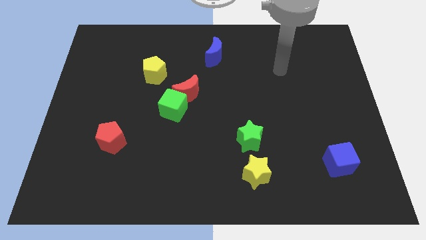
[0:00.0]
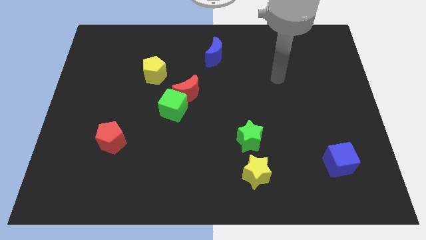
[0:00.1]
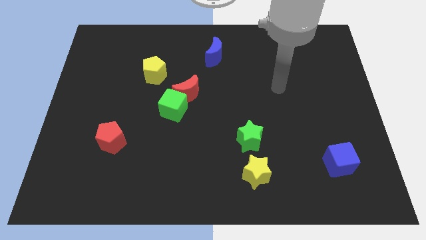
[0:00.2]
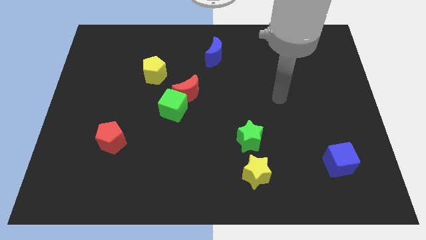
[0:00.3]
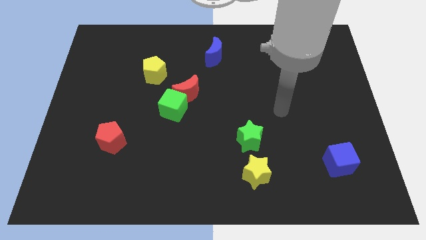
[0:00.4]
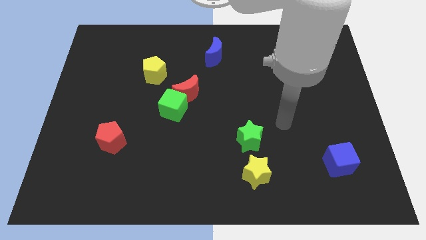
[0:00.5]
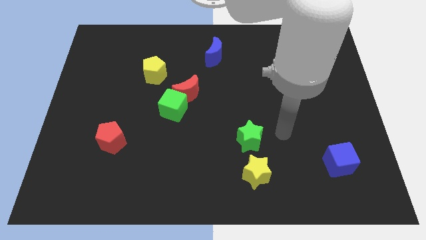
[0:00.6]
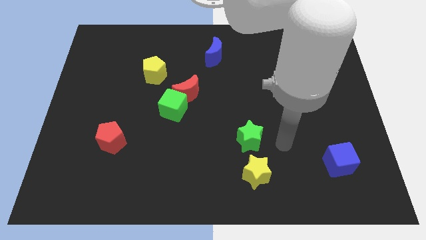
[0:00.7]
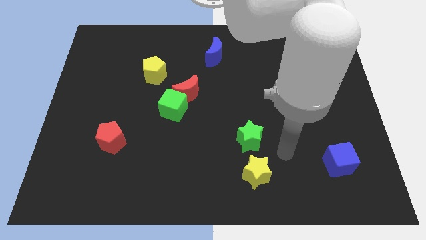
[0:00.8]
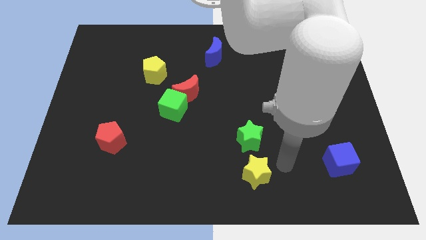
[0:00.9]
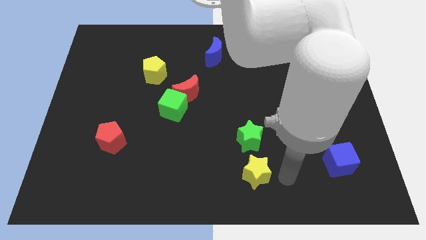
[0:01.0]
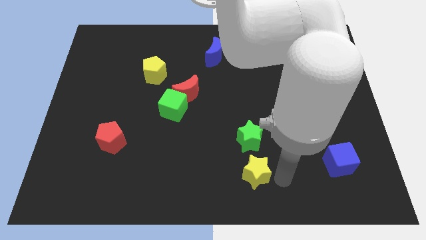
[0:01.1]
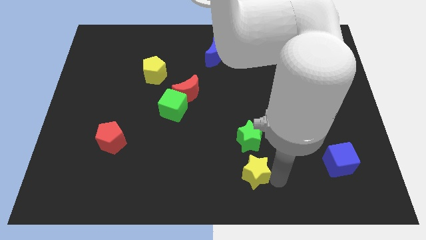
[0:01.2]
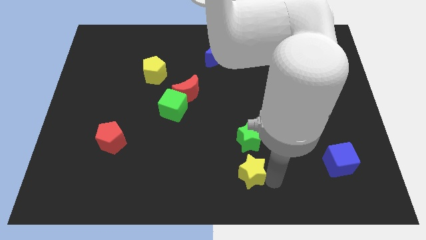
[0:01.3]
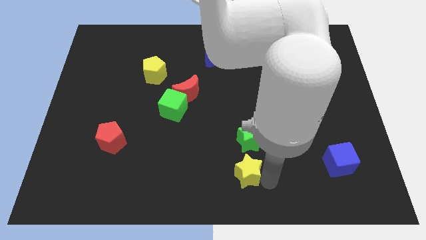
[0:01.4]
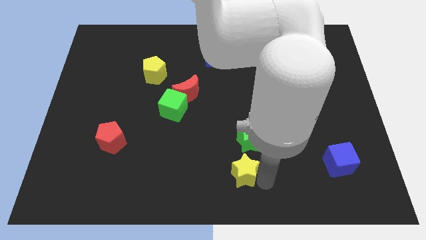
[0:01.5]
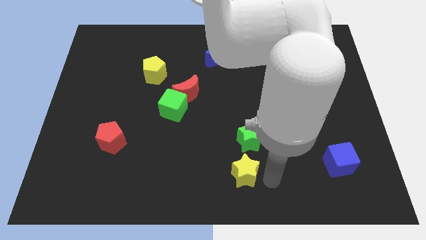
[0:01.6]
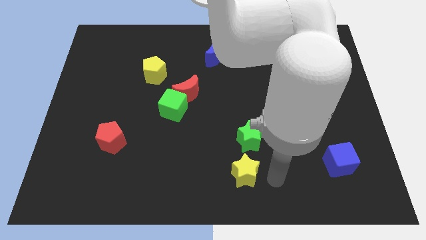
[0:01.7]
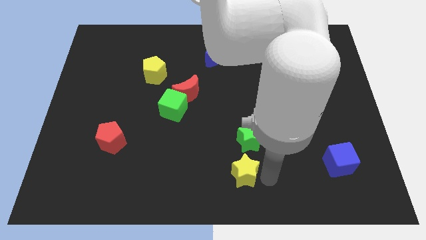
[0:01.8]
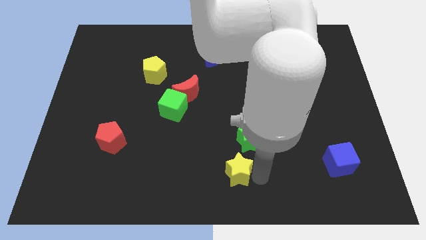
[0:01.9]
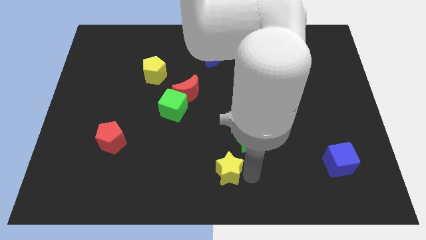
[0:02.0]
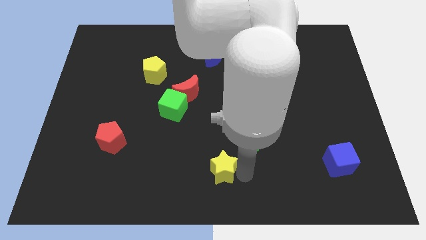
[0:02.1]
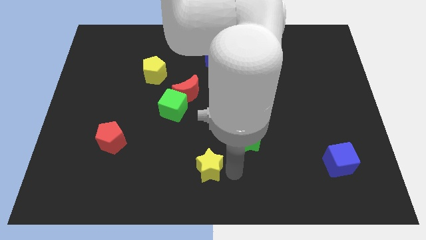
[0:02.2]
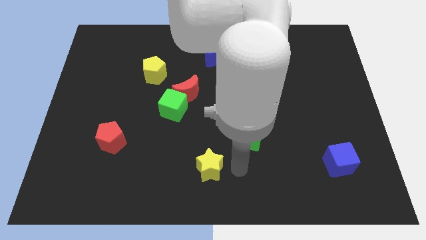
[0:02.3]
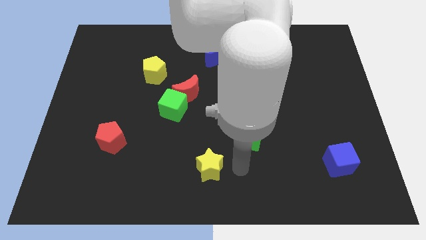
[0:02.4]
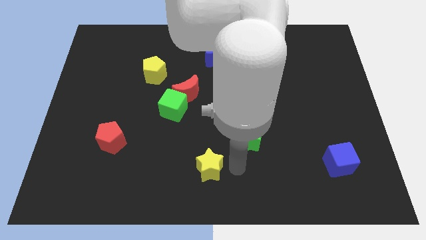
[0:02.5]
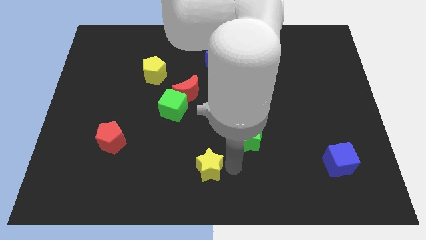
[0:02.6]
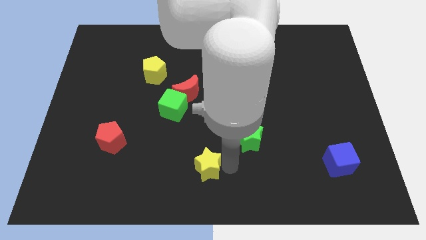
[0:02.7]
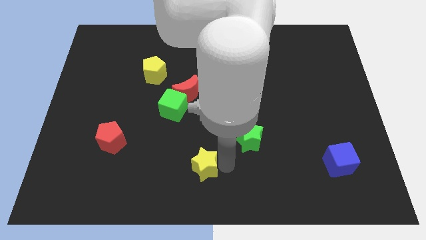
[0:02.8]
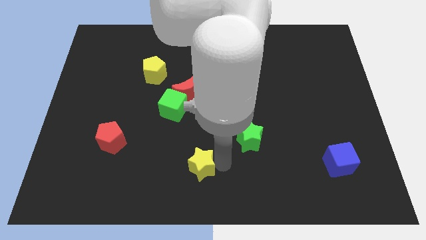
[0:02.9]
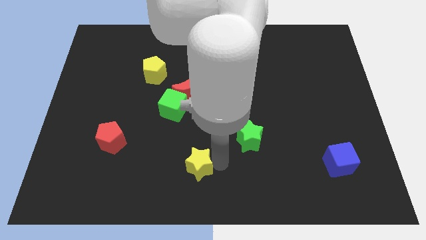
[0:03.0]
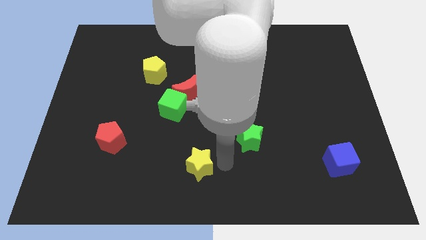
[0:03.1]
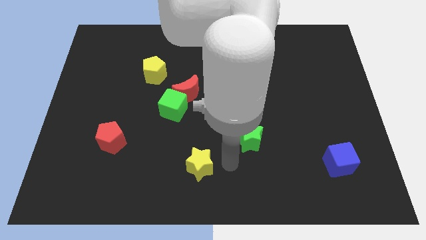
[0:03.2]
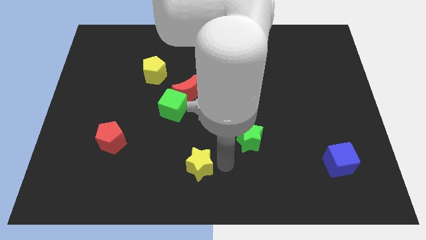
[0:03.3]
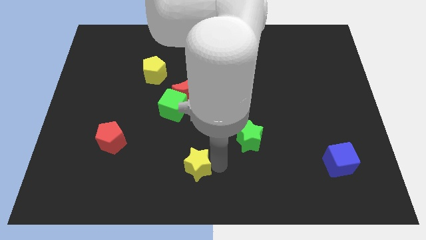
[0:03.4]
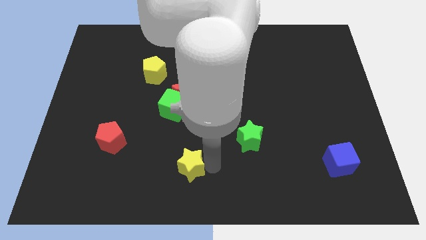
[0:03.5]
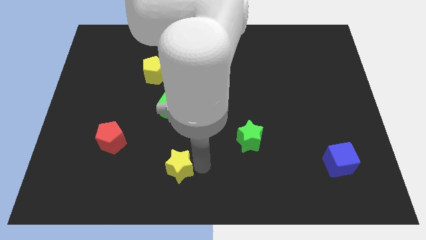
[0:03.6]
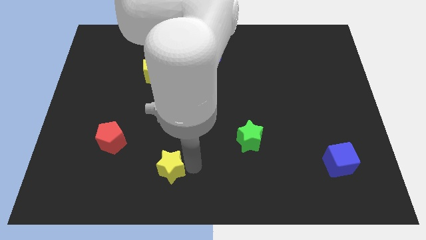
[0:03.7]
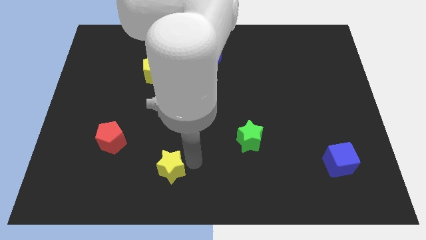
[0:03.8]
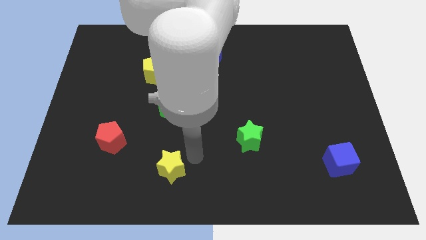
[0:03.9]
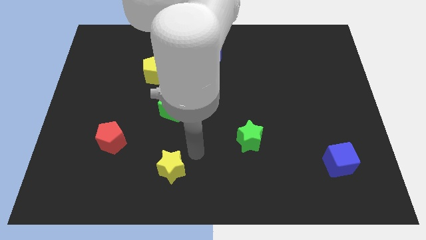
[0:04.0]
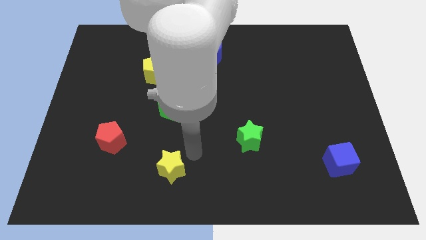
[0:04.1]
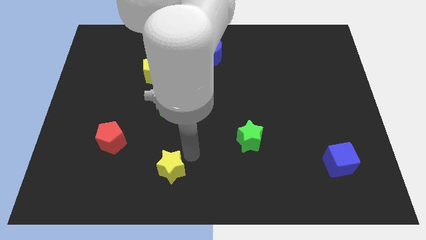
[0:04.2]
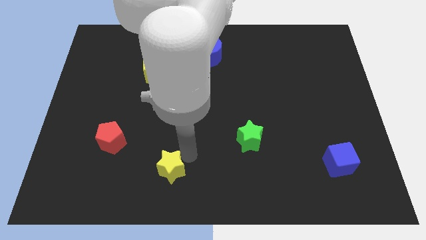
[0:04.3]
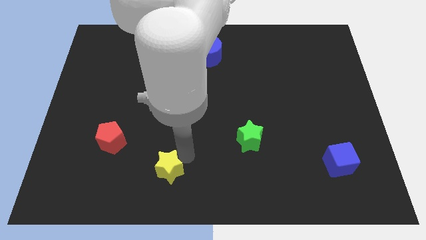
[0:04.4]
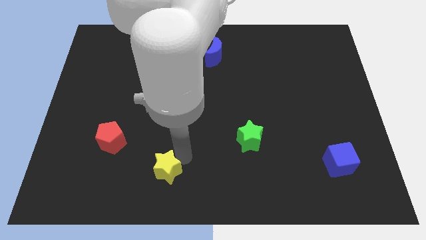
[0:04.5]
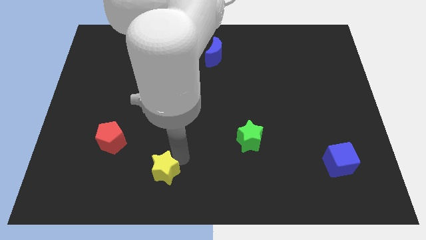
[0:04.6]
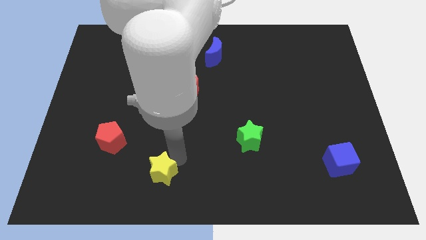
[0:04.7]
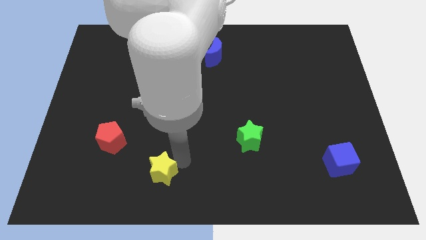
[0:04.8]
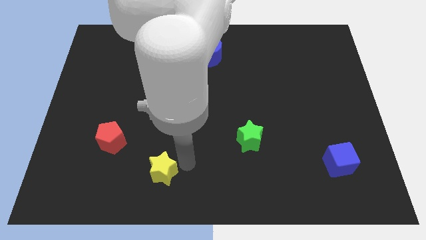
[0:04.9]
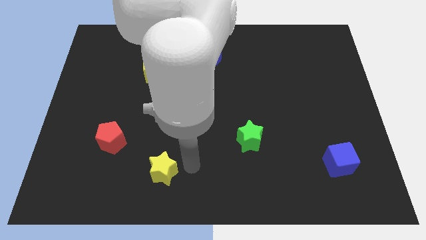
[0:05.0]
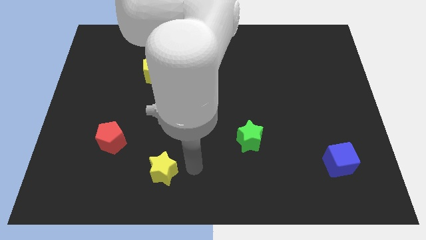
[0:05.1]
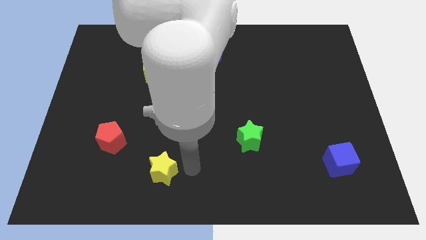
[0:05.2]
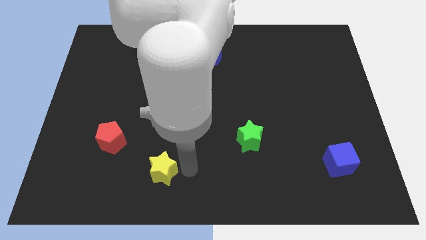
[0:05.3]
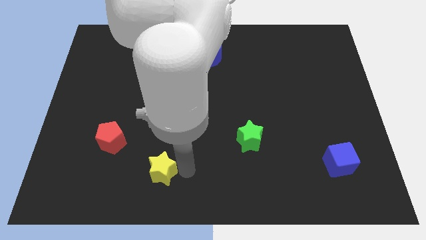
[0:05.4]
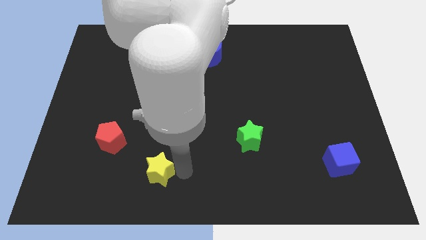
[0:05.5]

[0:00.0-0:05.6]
slide the yellow star to the left

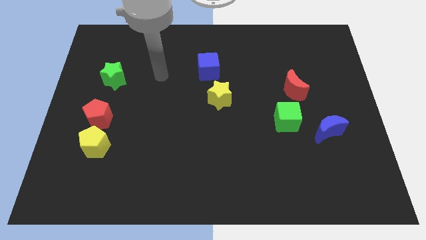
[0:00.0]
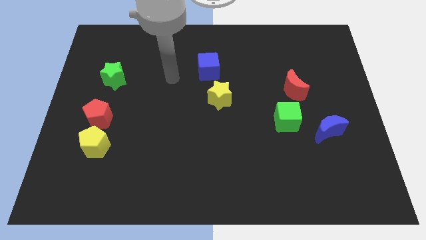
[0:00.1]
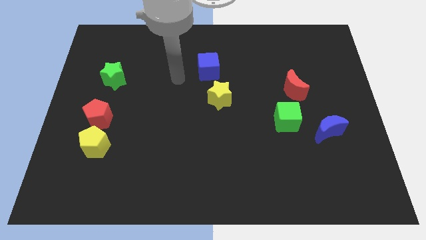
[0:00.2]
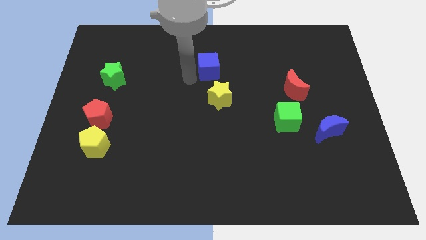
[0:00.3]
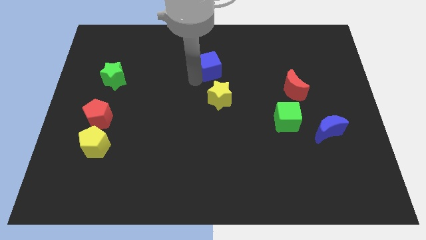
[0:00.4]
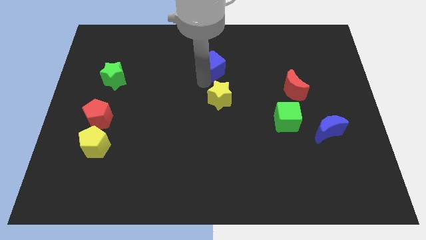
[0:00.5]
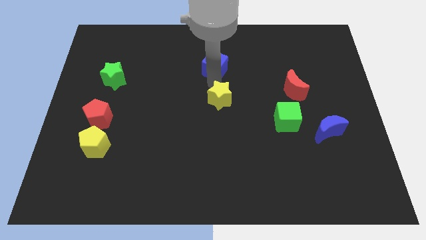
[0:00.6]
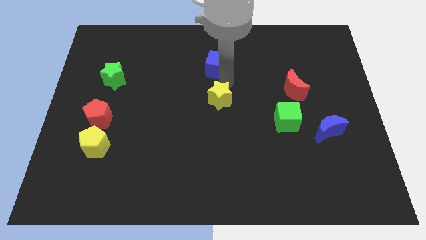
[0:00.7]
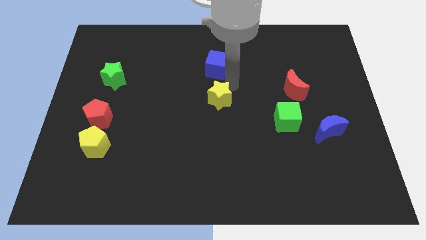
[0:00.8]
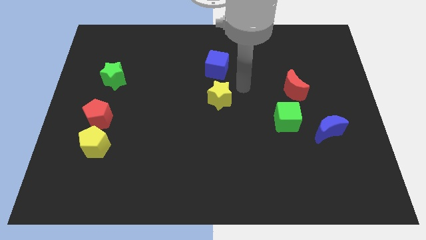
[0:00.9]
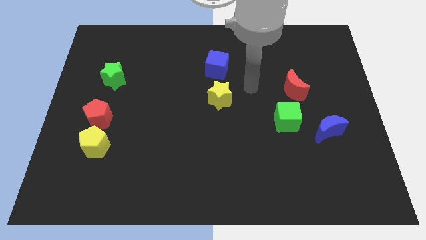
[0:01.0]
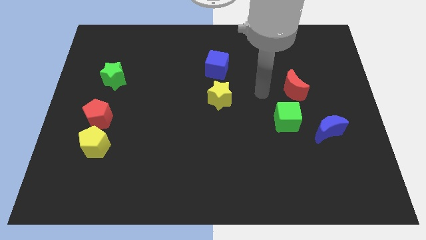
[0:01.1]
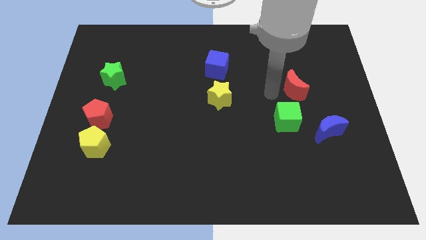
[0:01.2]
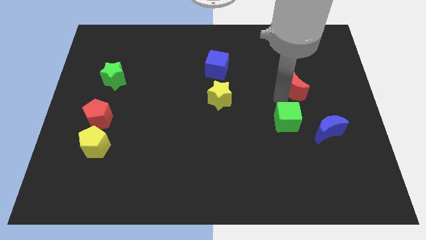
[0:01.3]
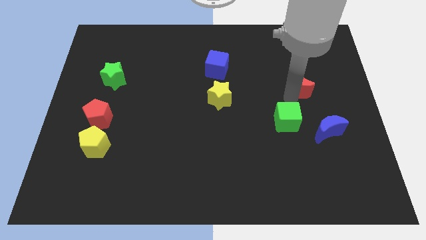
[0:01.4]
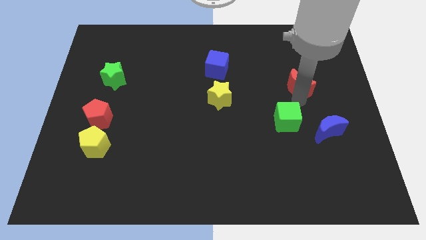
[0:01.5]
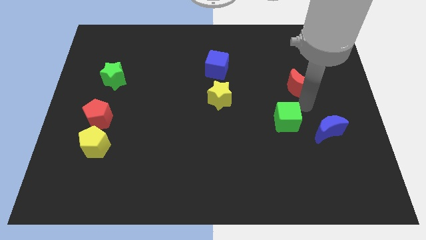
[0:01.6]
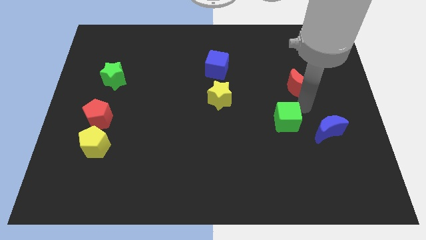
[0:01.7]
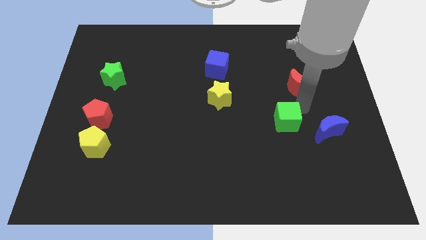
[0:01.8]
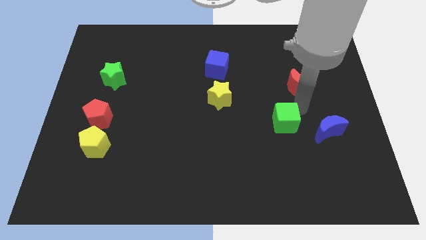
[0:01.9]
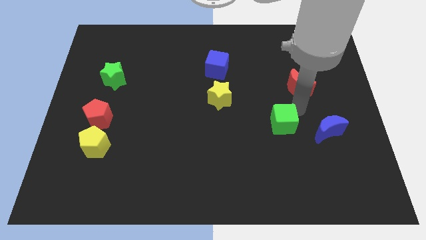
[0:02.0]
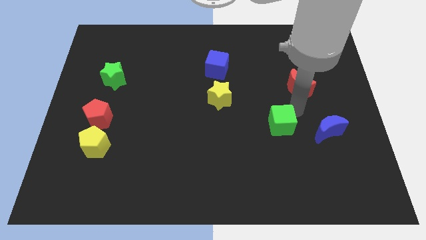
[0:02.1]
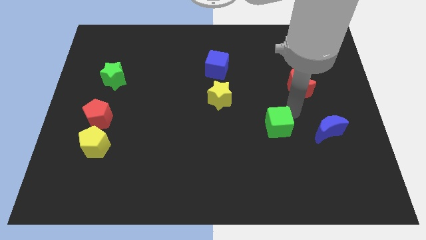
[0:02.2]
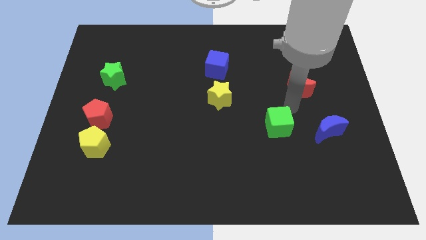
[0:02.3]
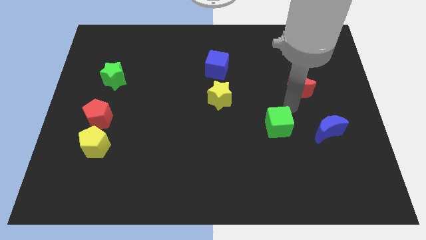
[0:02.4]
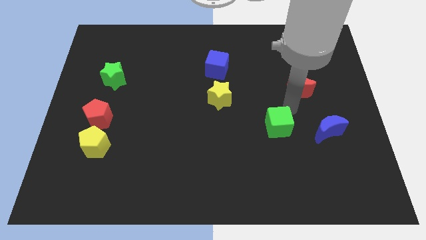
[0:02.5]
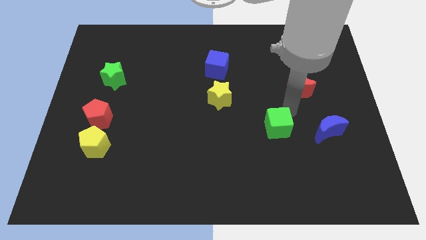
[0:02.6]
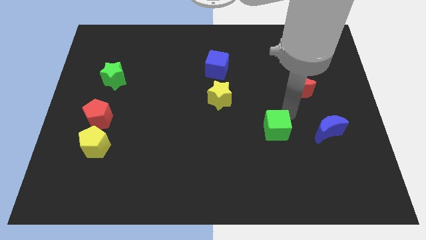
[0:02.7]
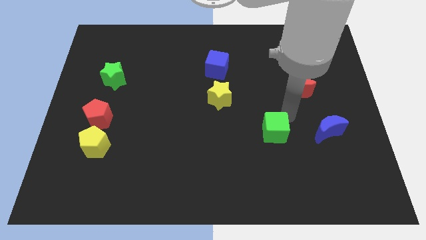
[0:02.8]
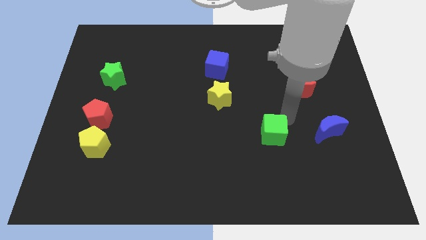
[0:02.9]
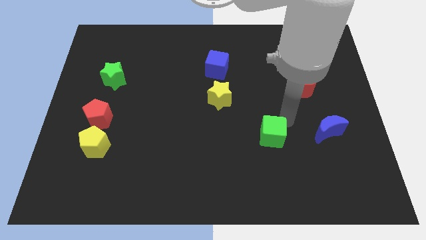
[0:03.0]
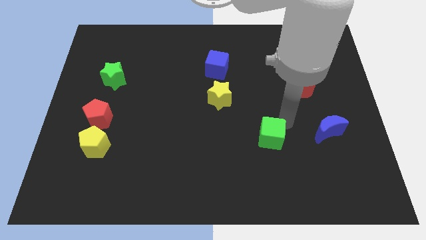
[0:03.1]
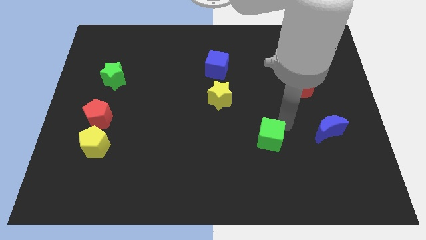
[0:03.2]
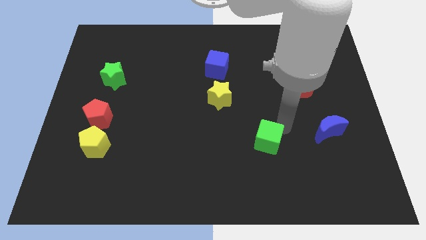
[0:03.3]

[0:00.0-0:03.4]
slightly push the green cube down and to the left
